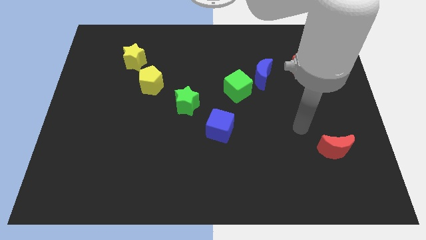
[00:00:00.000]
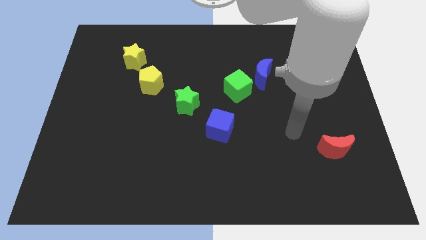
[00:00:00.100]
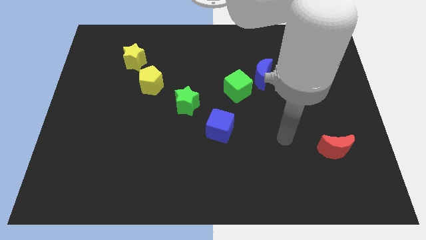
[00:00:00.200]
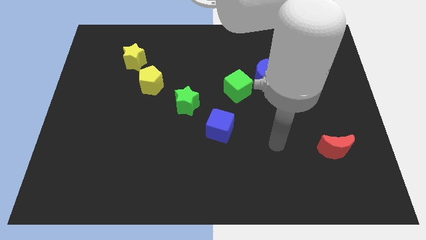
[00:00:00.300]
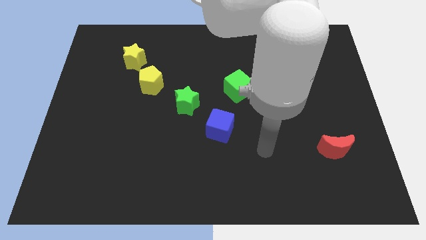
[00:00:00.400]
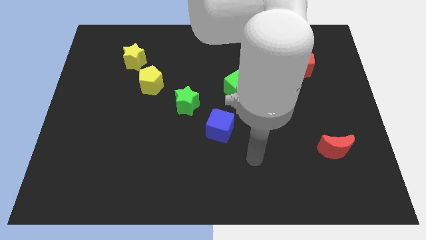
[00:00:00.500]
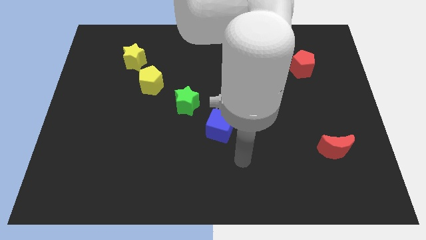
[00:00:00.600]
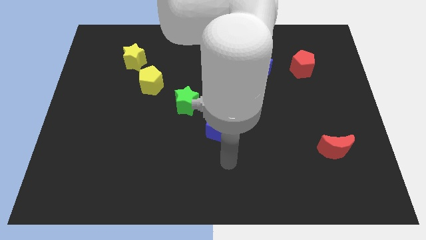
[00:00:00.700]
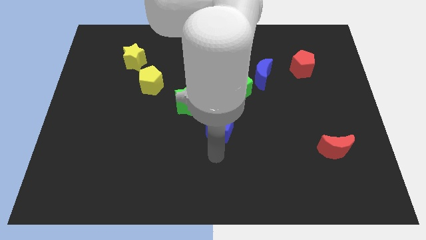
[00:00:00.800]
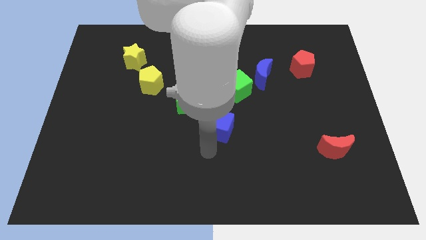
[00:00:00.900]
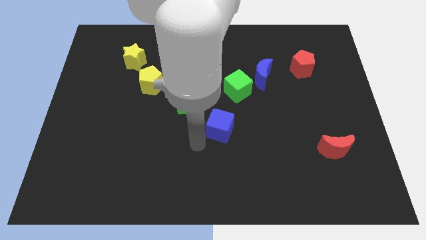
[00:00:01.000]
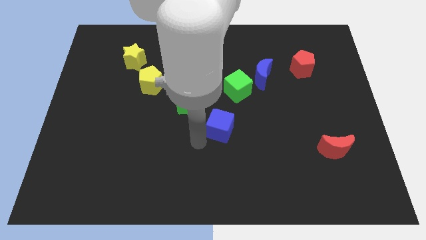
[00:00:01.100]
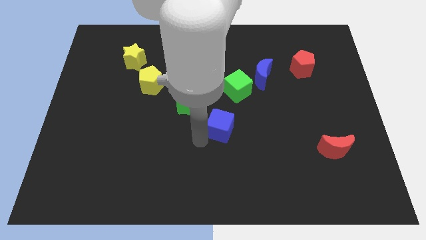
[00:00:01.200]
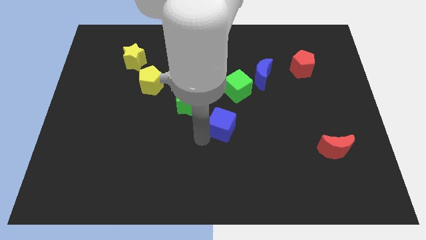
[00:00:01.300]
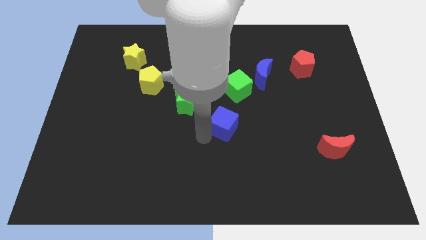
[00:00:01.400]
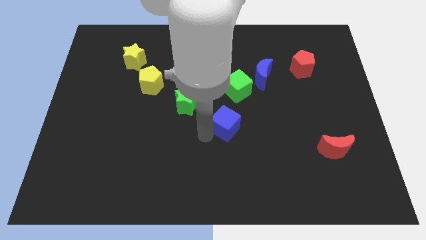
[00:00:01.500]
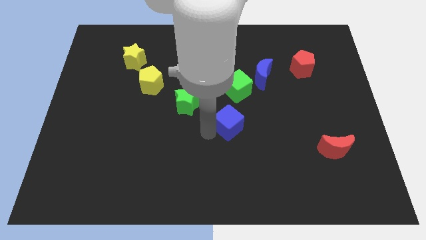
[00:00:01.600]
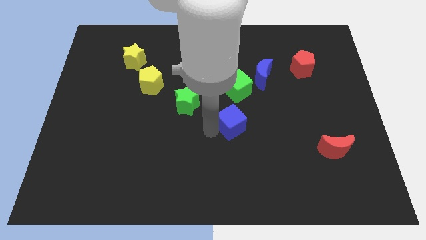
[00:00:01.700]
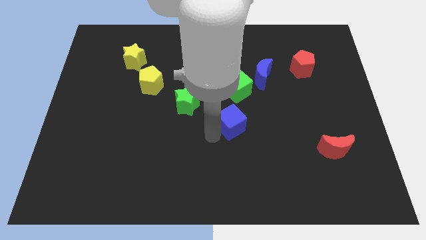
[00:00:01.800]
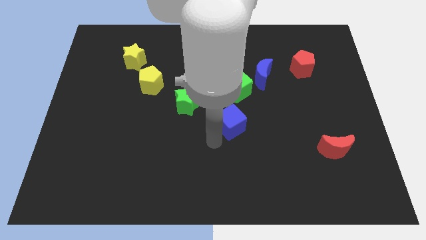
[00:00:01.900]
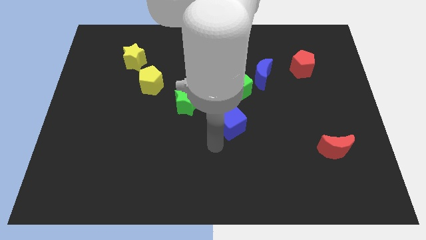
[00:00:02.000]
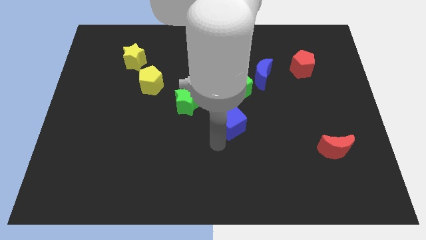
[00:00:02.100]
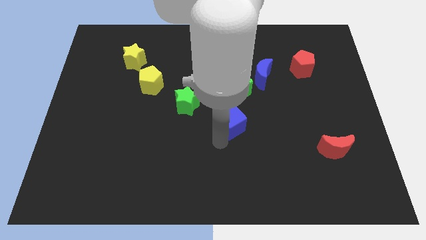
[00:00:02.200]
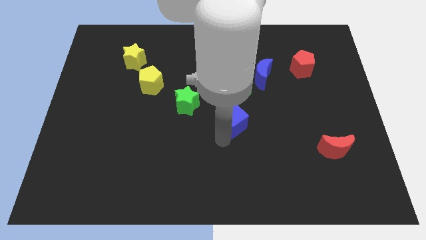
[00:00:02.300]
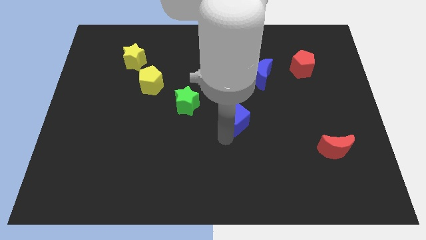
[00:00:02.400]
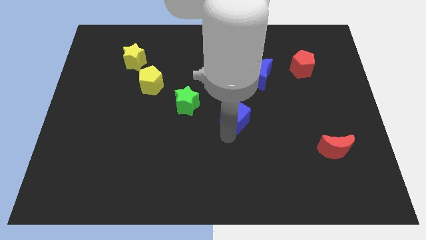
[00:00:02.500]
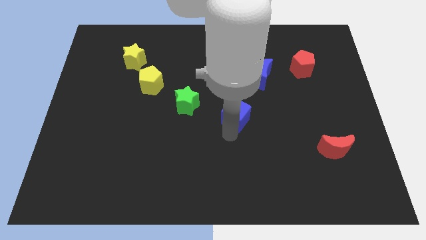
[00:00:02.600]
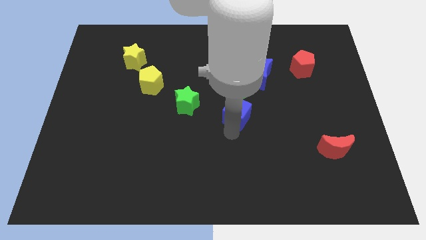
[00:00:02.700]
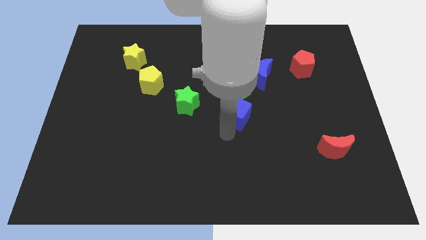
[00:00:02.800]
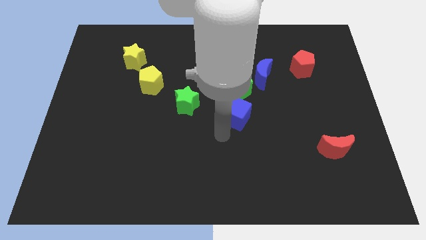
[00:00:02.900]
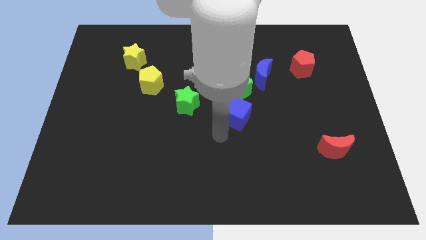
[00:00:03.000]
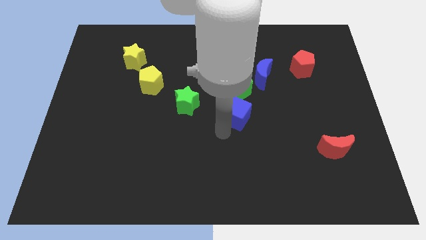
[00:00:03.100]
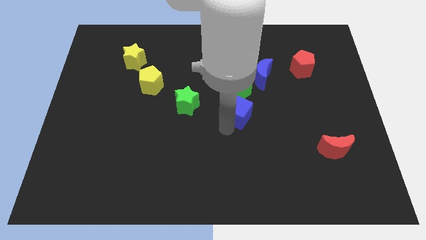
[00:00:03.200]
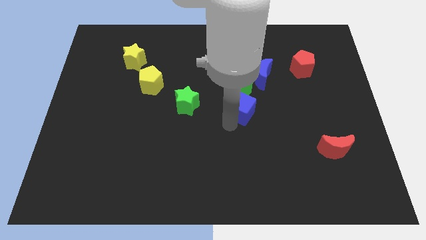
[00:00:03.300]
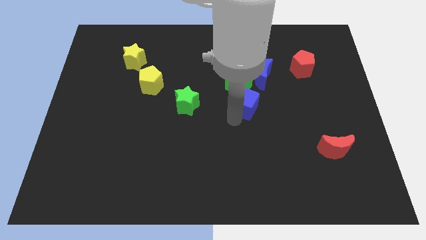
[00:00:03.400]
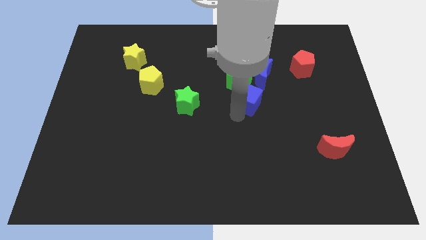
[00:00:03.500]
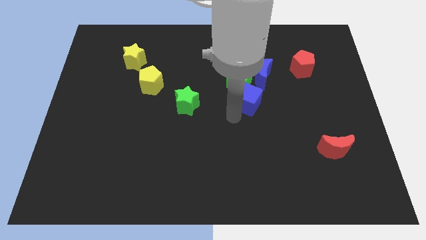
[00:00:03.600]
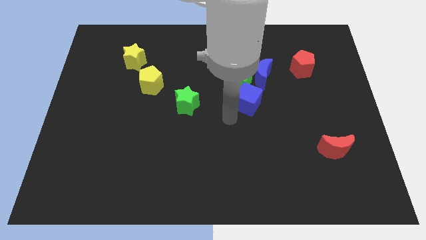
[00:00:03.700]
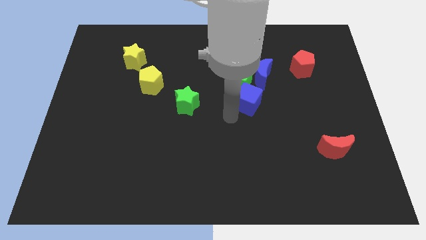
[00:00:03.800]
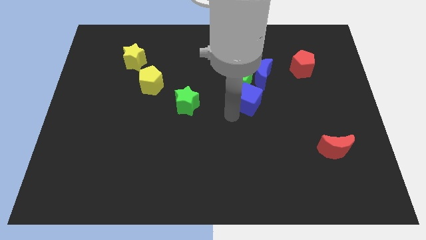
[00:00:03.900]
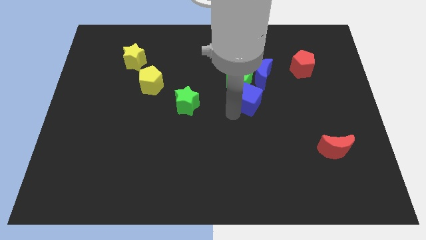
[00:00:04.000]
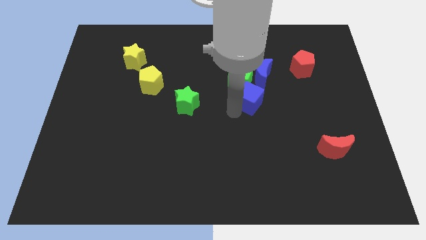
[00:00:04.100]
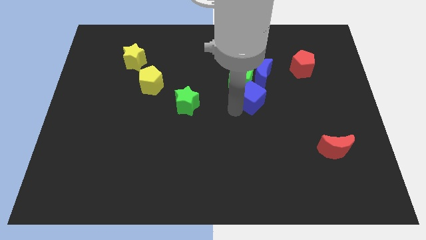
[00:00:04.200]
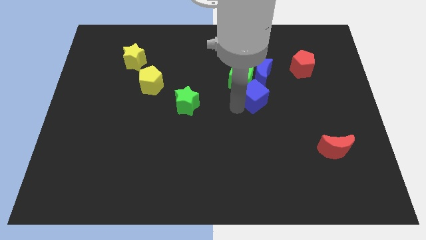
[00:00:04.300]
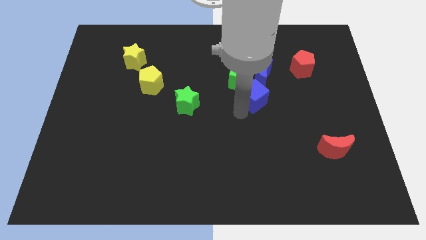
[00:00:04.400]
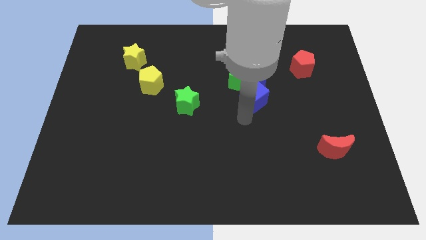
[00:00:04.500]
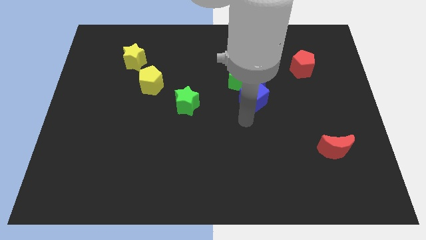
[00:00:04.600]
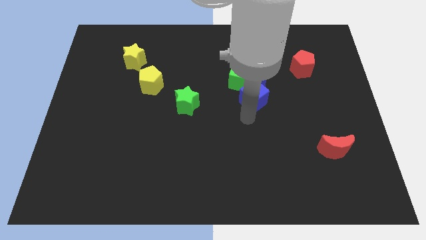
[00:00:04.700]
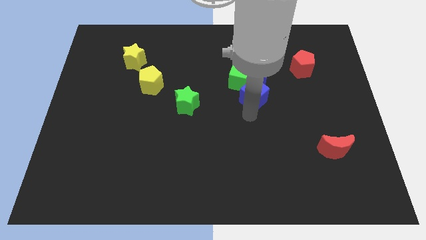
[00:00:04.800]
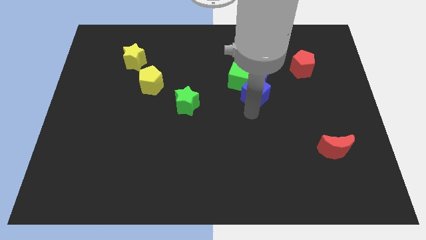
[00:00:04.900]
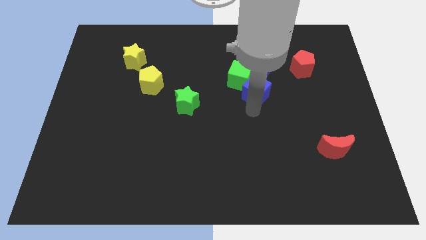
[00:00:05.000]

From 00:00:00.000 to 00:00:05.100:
move the blue cube to the blue moon

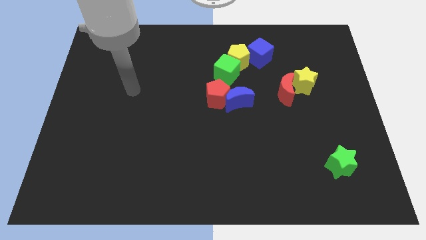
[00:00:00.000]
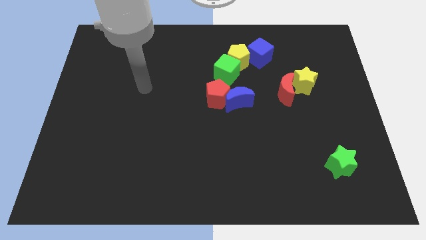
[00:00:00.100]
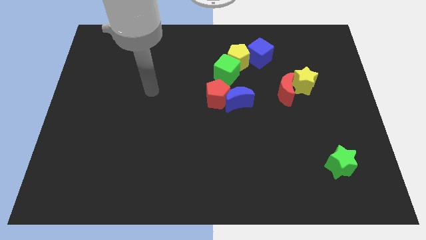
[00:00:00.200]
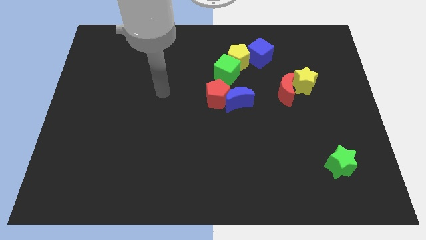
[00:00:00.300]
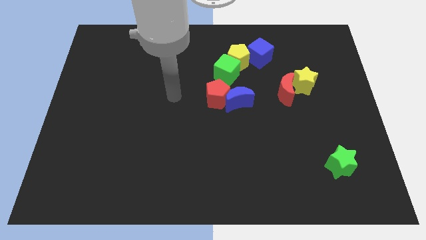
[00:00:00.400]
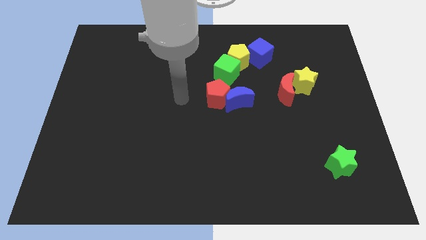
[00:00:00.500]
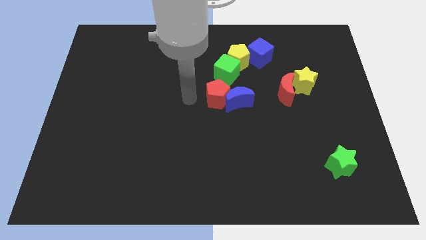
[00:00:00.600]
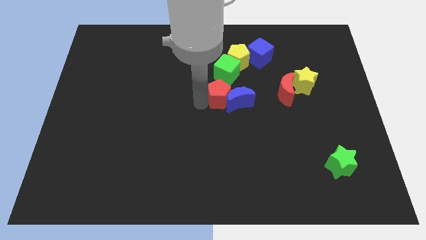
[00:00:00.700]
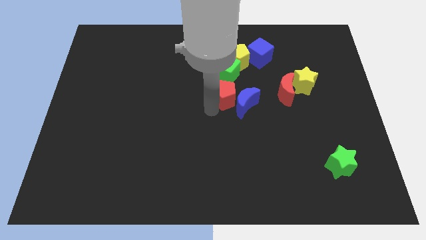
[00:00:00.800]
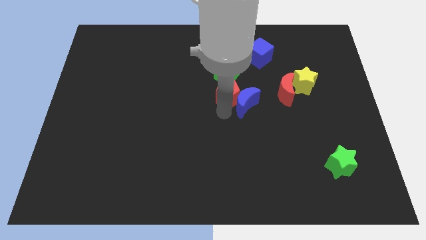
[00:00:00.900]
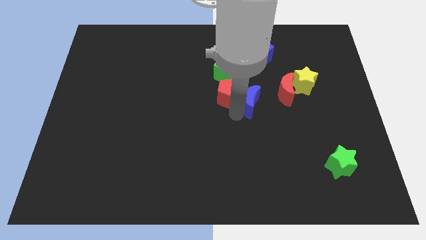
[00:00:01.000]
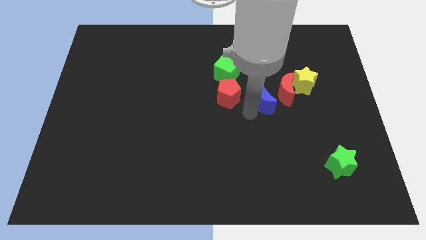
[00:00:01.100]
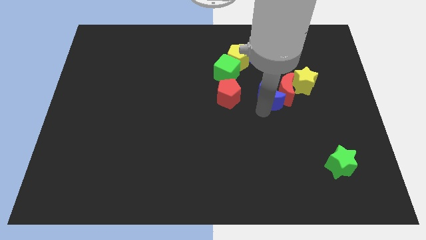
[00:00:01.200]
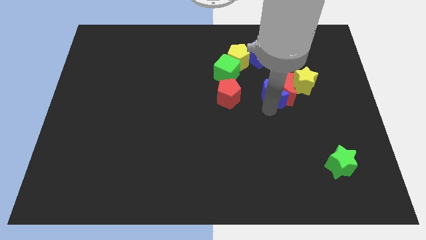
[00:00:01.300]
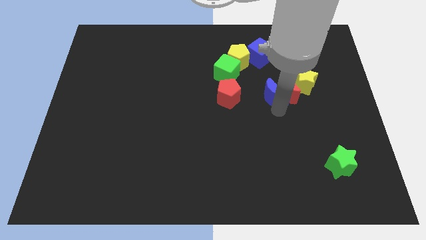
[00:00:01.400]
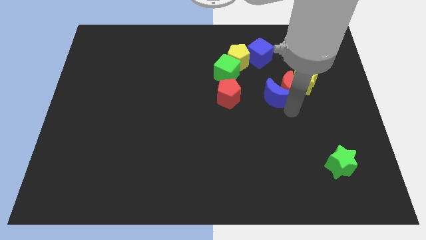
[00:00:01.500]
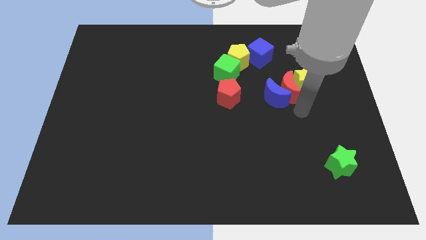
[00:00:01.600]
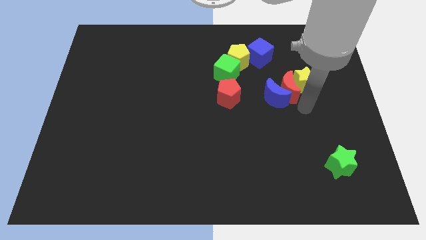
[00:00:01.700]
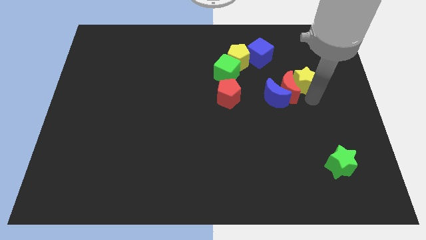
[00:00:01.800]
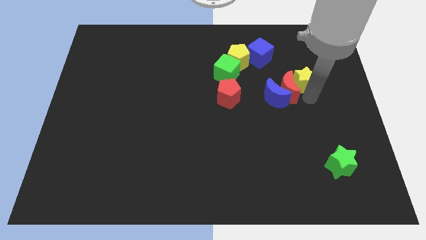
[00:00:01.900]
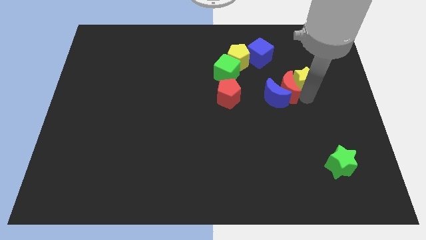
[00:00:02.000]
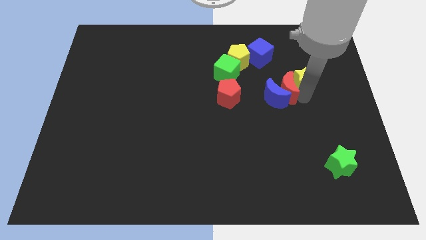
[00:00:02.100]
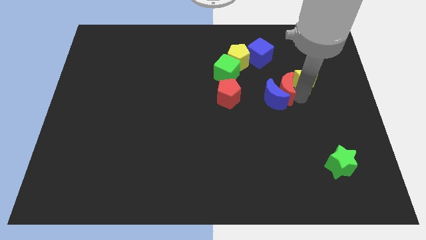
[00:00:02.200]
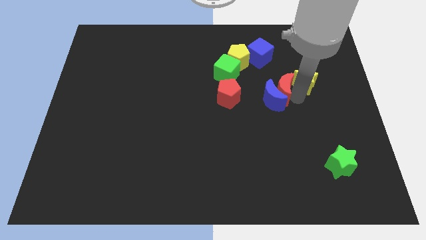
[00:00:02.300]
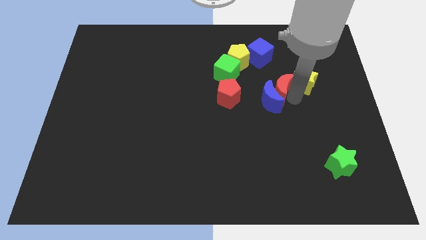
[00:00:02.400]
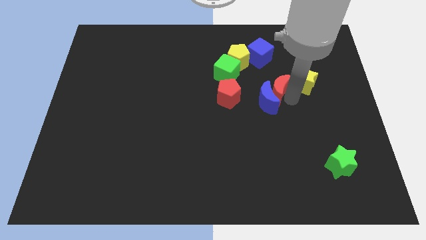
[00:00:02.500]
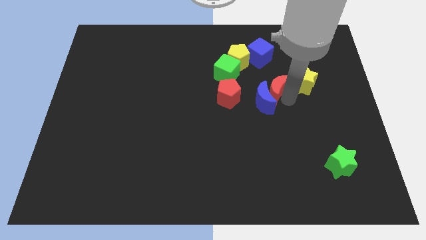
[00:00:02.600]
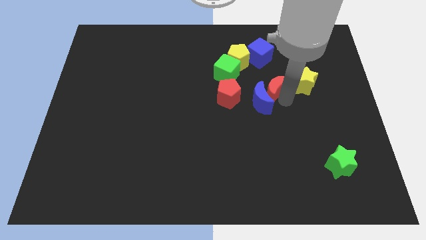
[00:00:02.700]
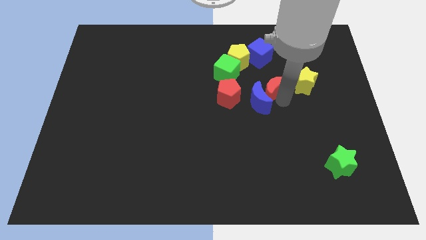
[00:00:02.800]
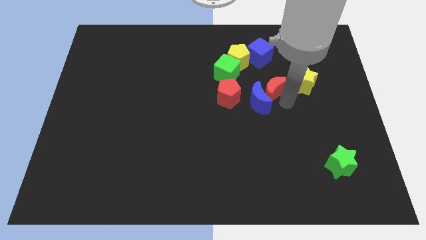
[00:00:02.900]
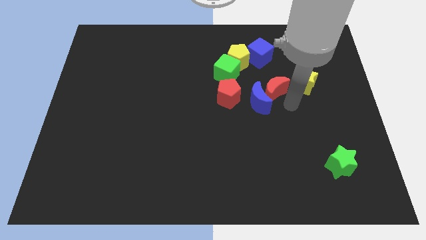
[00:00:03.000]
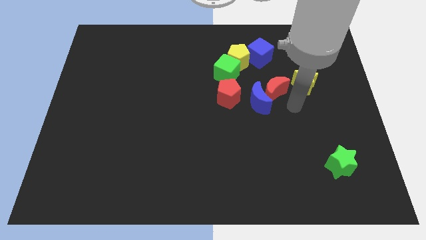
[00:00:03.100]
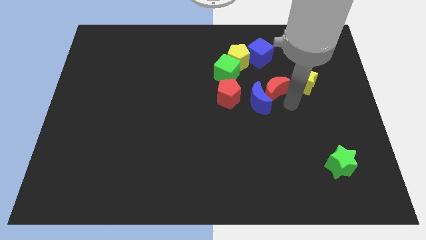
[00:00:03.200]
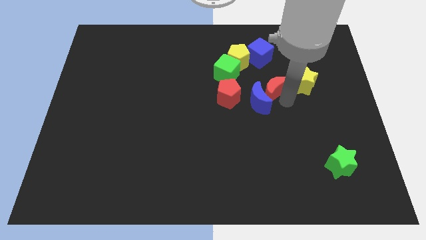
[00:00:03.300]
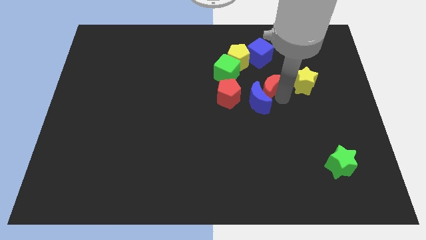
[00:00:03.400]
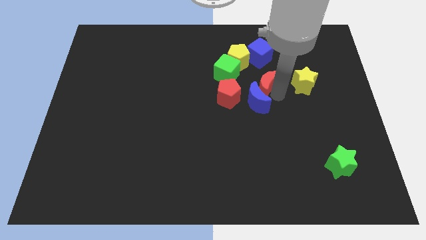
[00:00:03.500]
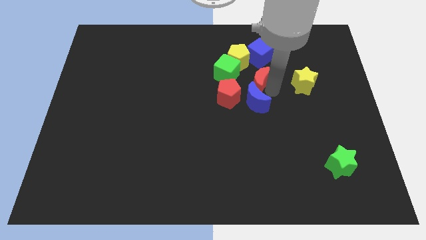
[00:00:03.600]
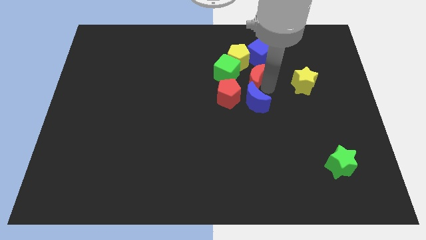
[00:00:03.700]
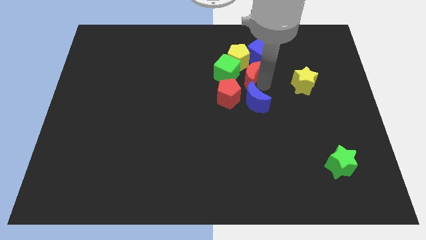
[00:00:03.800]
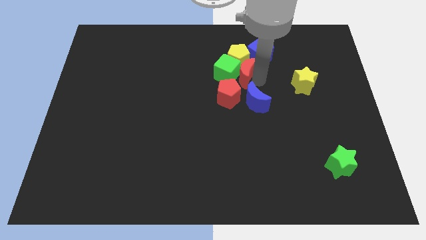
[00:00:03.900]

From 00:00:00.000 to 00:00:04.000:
slide the red moon to the green cube
